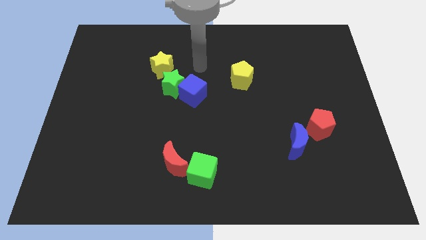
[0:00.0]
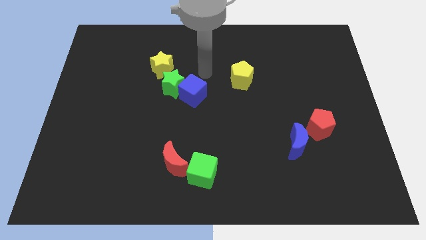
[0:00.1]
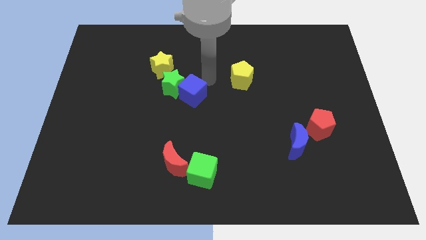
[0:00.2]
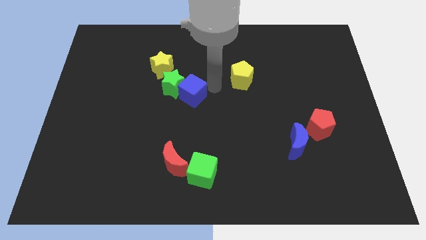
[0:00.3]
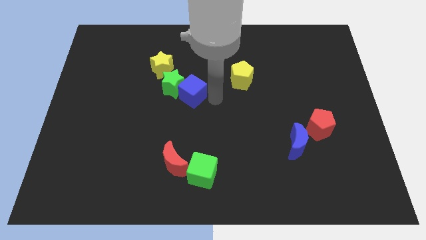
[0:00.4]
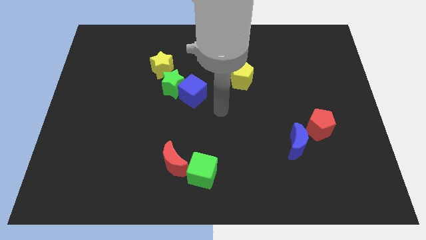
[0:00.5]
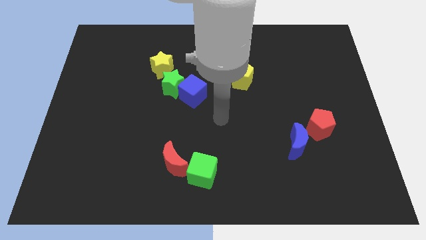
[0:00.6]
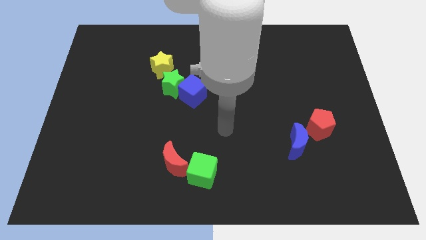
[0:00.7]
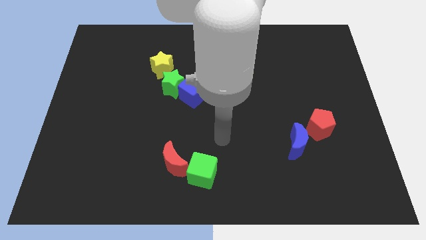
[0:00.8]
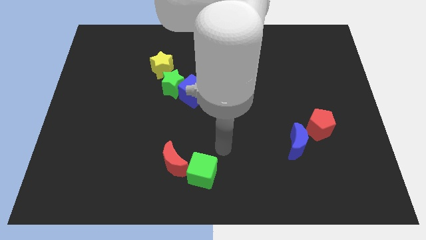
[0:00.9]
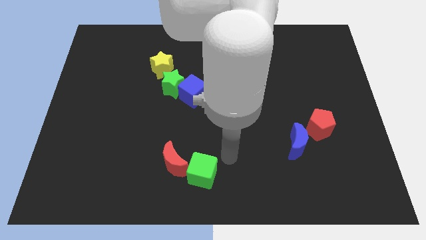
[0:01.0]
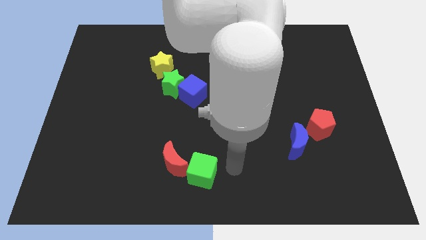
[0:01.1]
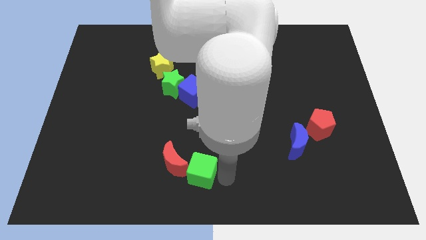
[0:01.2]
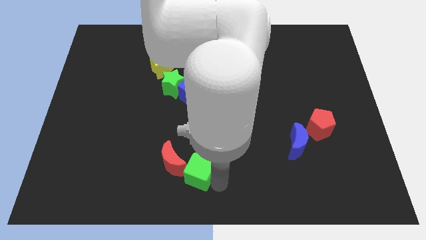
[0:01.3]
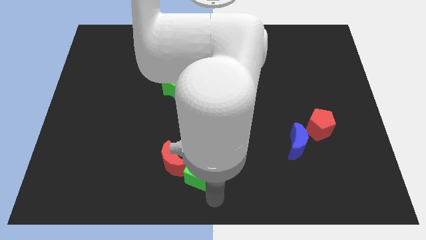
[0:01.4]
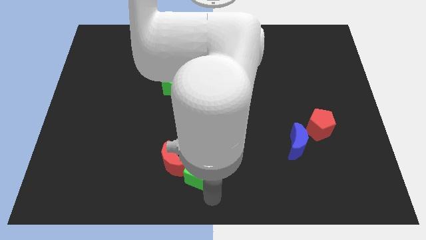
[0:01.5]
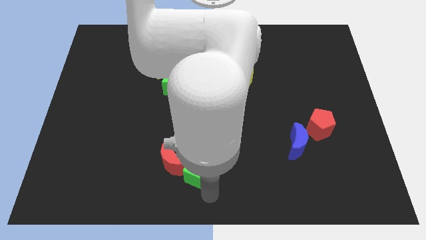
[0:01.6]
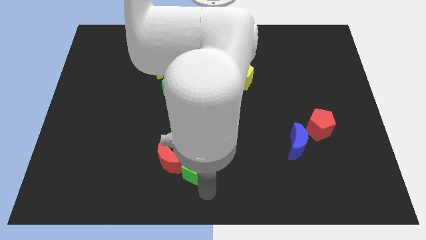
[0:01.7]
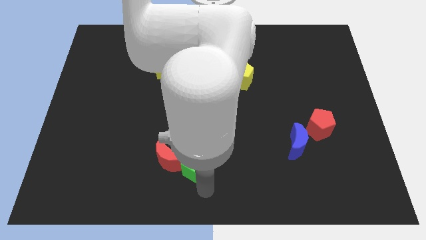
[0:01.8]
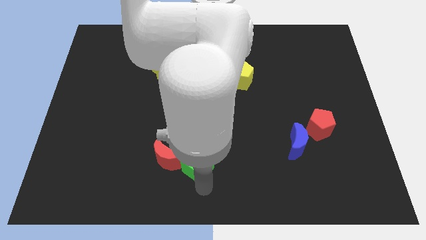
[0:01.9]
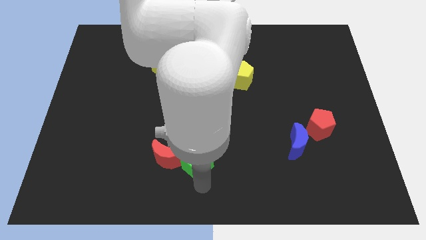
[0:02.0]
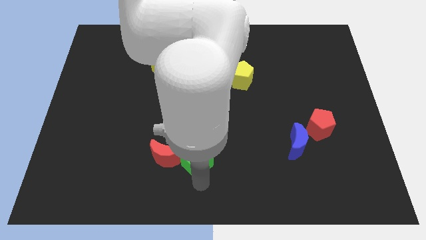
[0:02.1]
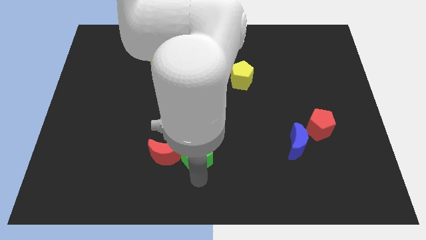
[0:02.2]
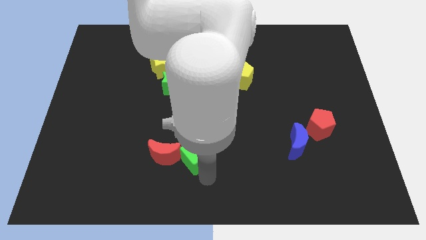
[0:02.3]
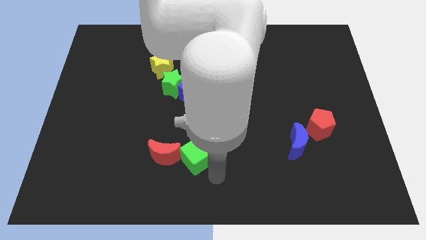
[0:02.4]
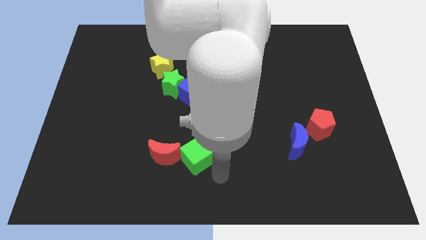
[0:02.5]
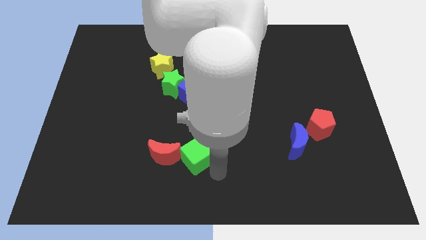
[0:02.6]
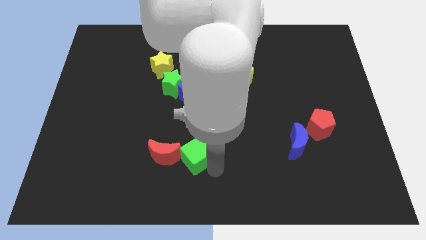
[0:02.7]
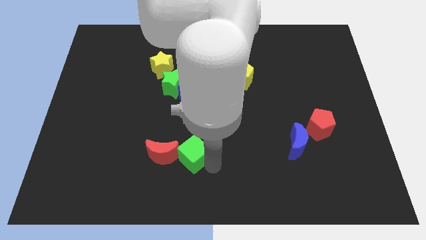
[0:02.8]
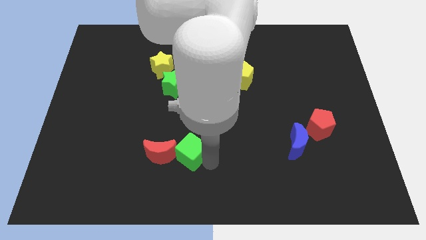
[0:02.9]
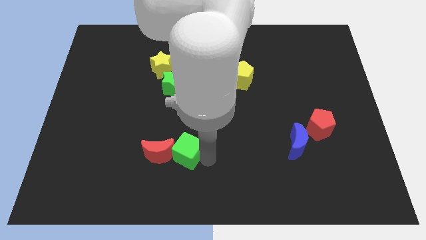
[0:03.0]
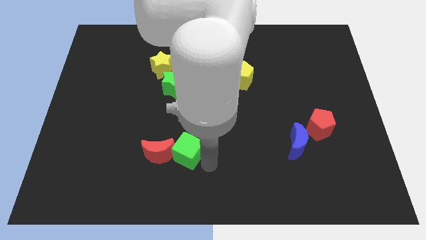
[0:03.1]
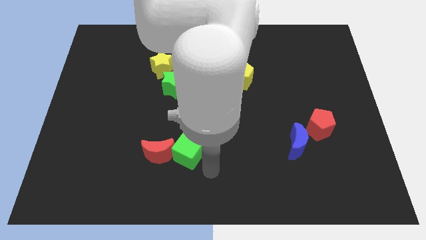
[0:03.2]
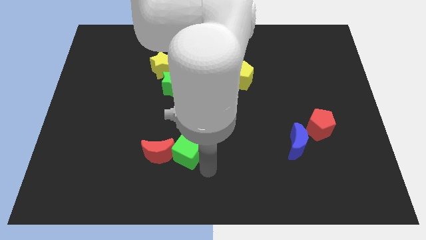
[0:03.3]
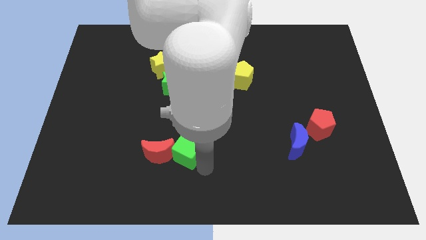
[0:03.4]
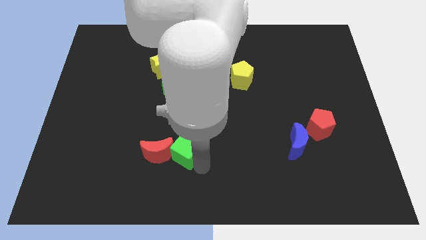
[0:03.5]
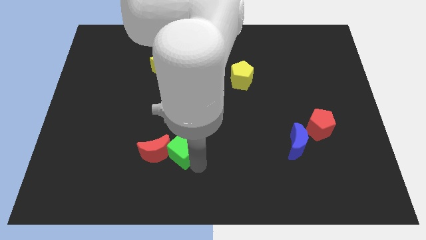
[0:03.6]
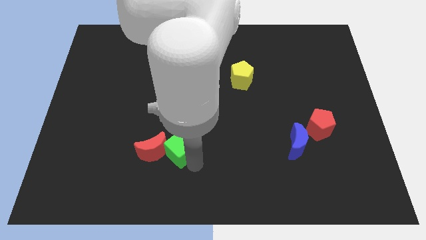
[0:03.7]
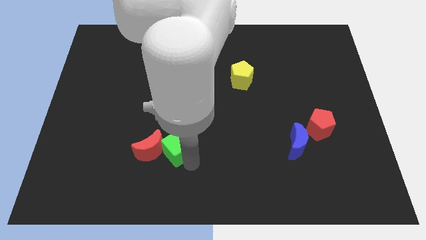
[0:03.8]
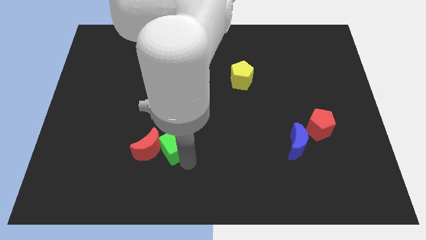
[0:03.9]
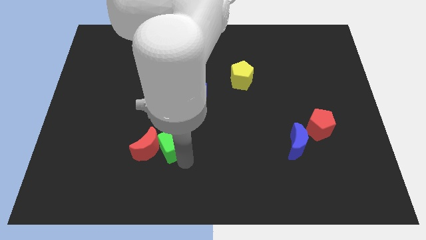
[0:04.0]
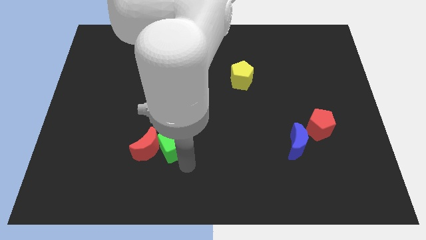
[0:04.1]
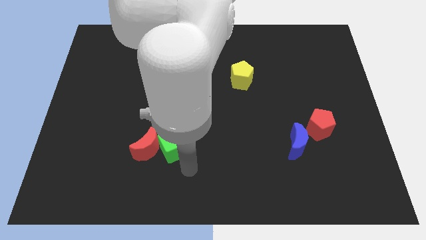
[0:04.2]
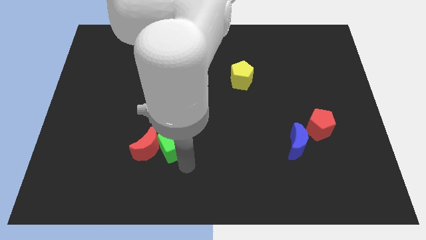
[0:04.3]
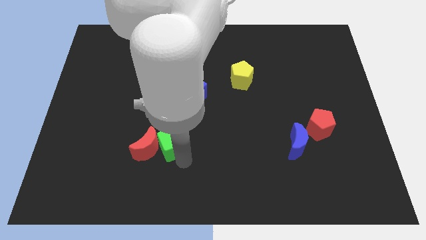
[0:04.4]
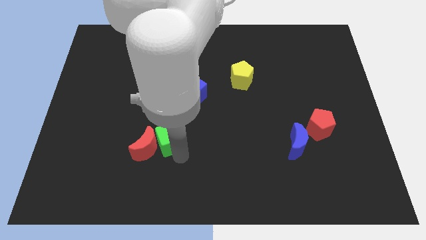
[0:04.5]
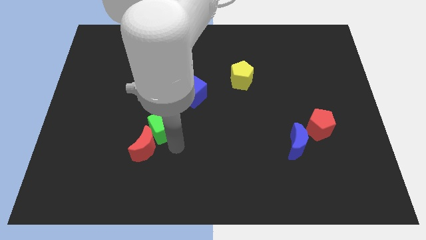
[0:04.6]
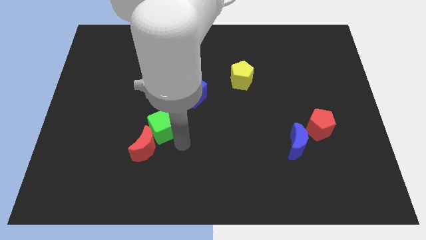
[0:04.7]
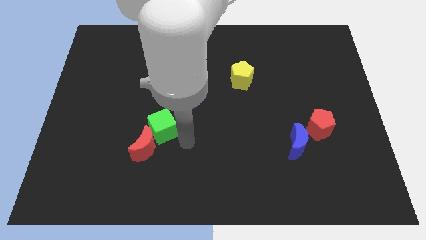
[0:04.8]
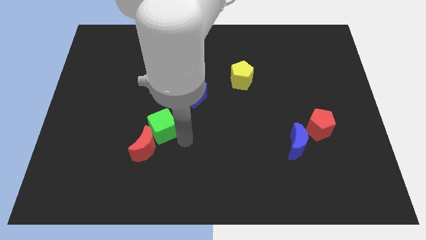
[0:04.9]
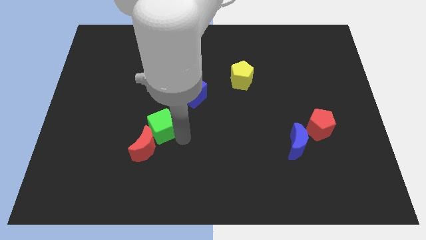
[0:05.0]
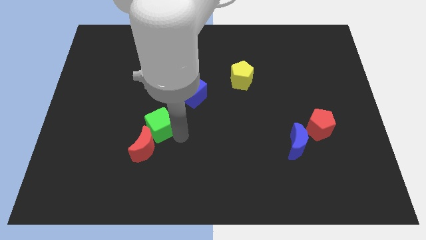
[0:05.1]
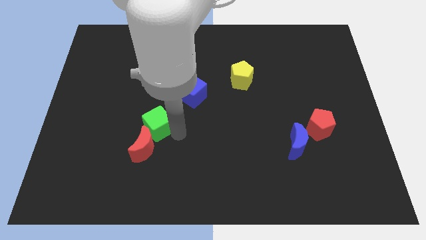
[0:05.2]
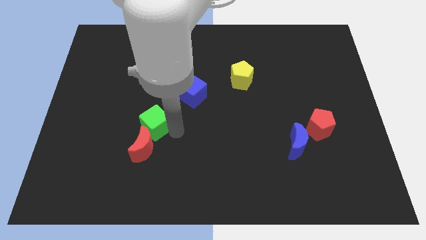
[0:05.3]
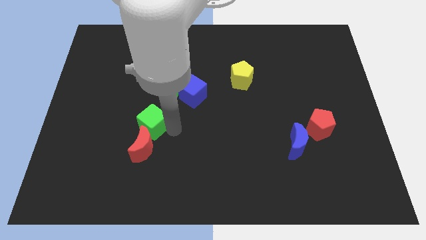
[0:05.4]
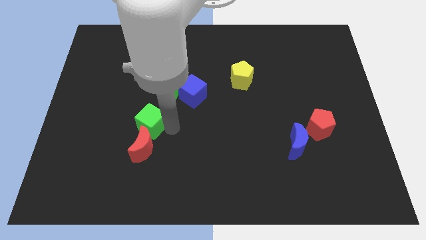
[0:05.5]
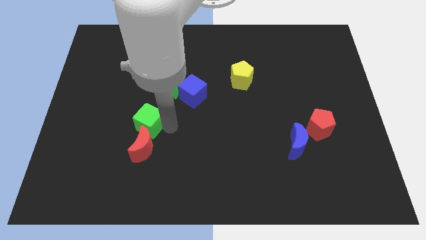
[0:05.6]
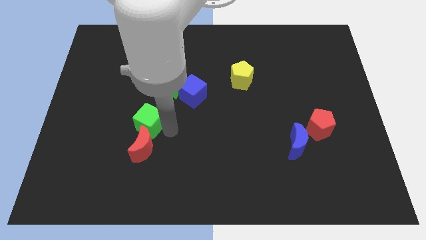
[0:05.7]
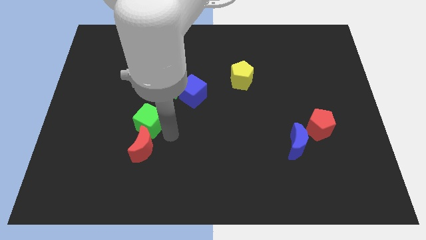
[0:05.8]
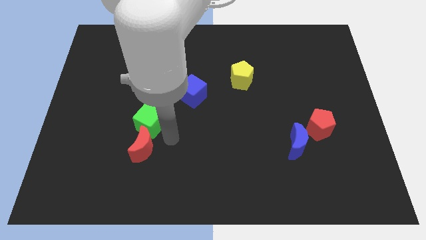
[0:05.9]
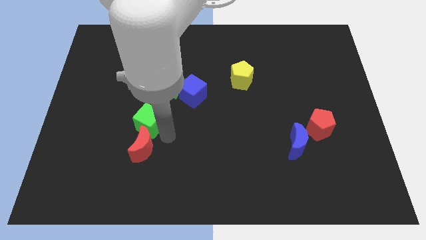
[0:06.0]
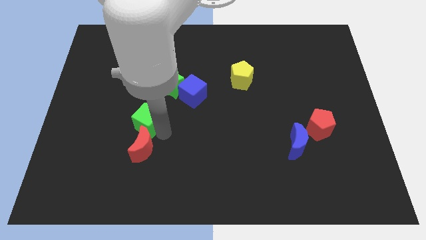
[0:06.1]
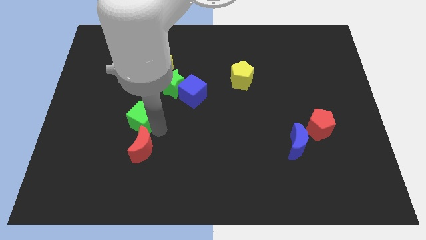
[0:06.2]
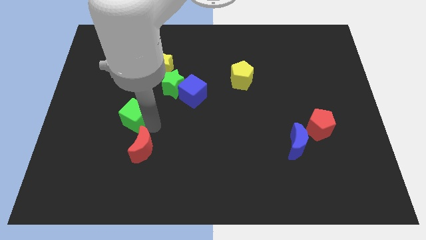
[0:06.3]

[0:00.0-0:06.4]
push the green cube upwards and then left

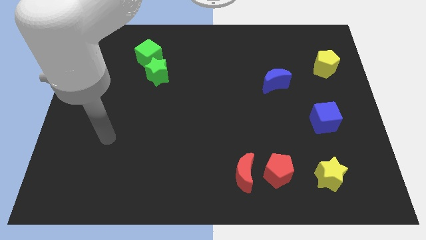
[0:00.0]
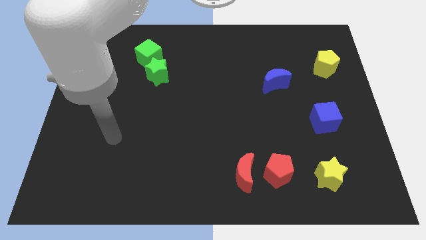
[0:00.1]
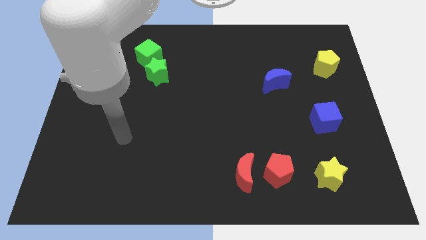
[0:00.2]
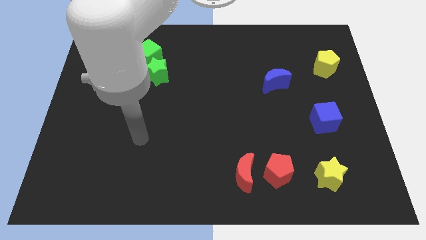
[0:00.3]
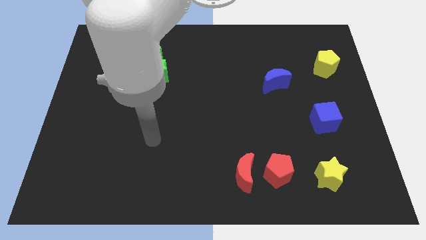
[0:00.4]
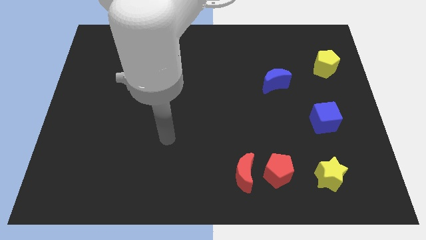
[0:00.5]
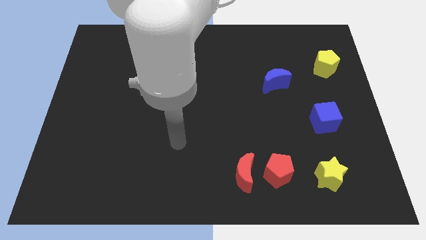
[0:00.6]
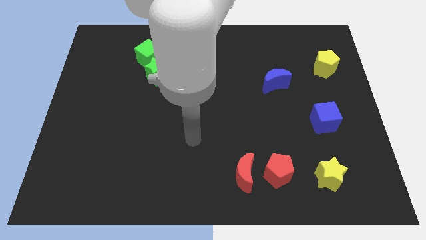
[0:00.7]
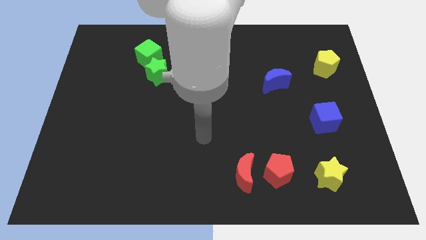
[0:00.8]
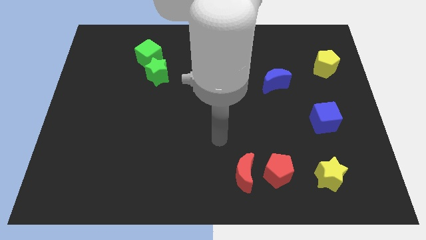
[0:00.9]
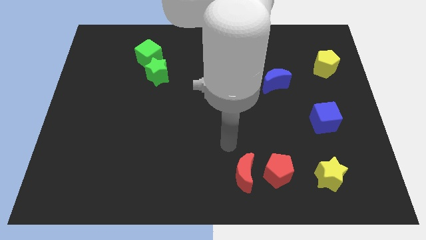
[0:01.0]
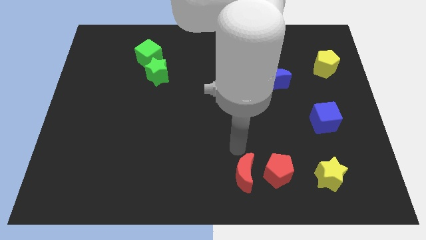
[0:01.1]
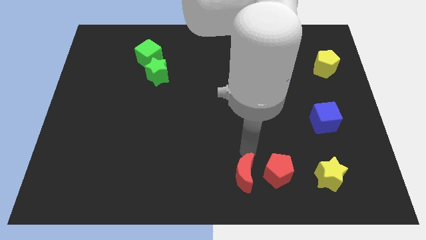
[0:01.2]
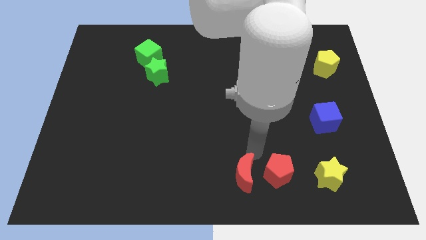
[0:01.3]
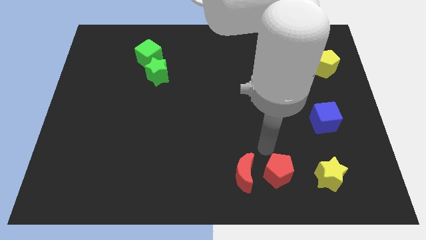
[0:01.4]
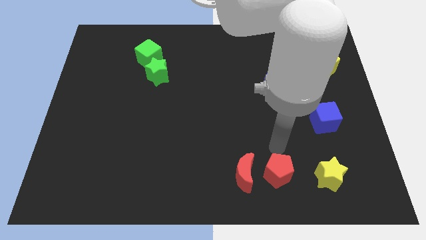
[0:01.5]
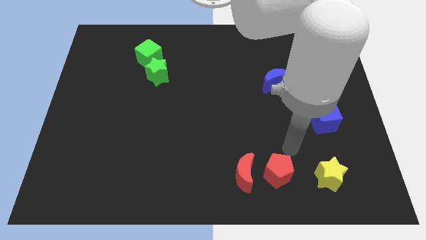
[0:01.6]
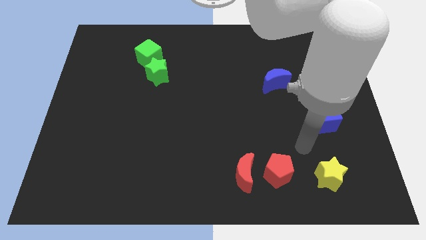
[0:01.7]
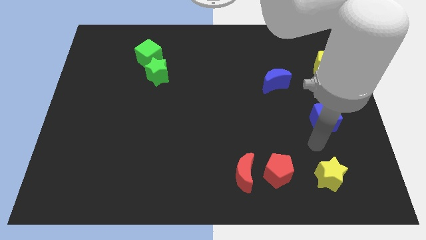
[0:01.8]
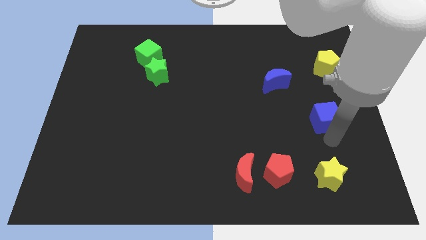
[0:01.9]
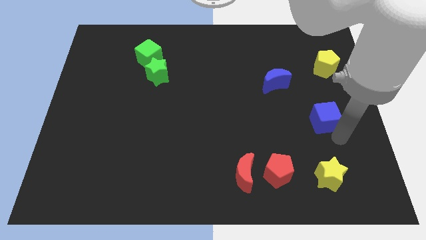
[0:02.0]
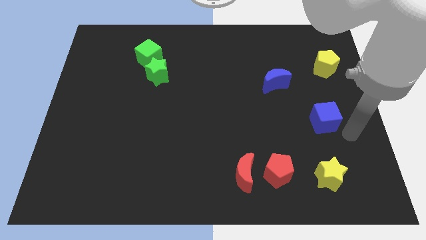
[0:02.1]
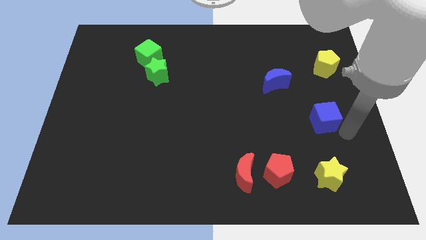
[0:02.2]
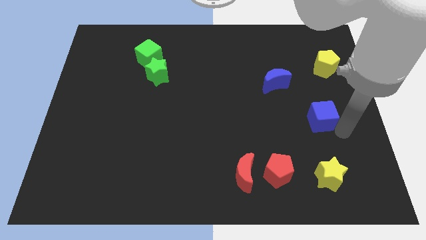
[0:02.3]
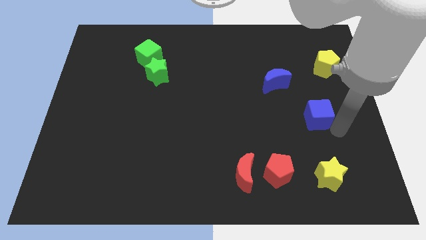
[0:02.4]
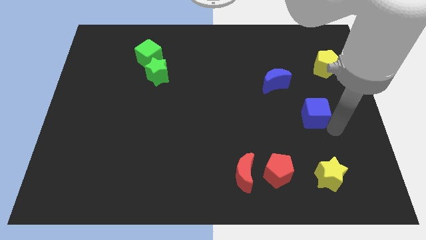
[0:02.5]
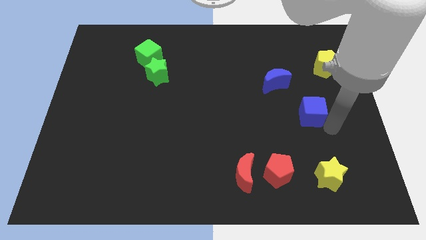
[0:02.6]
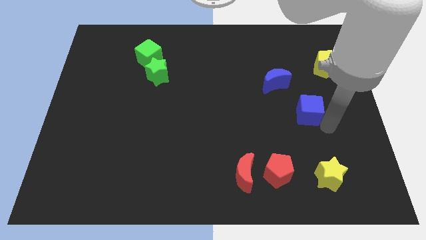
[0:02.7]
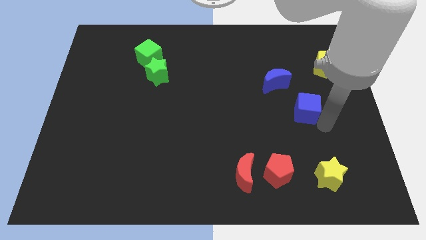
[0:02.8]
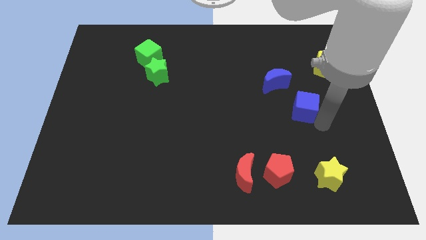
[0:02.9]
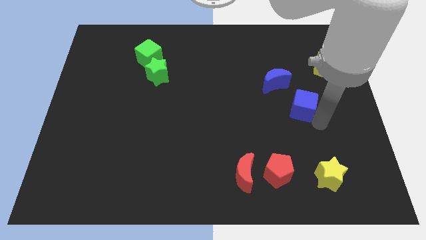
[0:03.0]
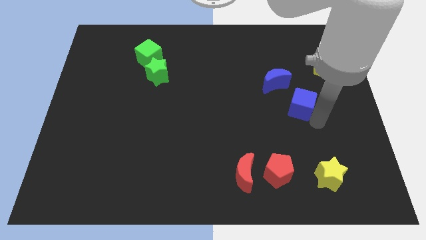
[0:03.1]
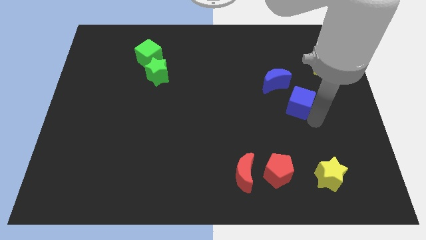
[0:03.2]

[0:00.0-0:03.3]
slightly move the blue cube up and to the left
